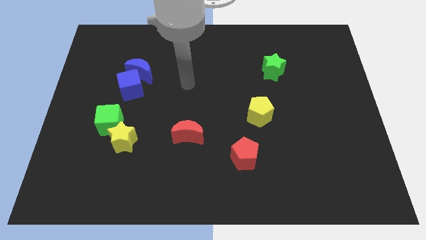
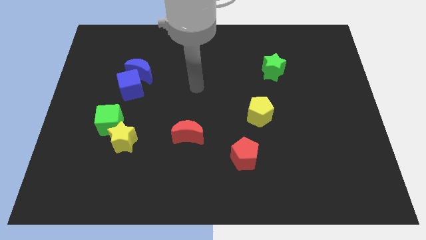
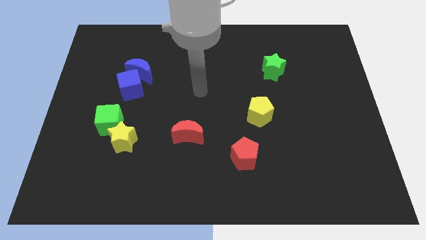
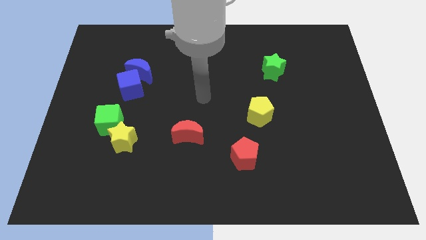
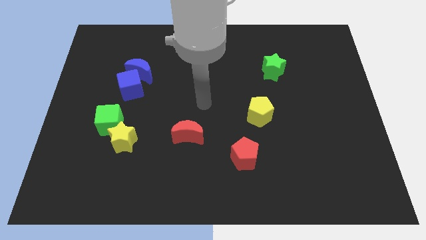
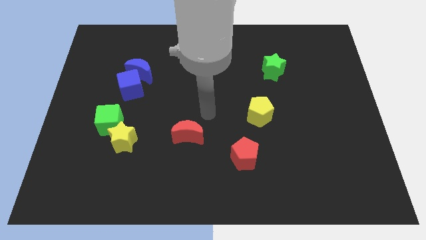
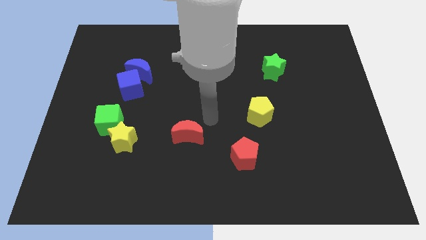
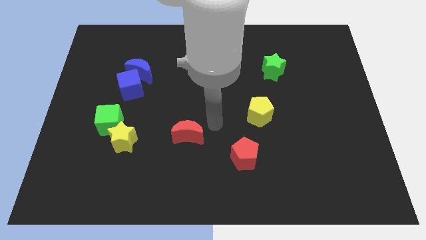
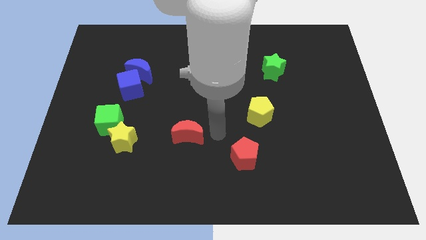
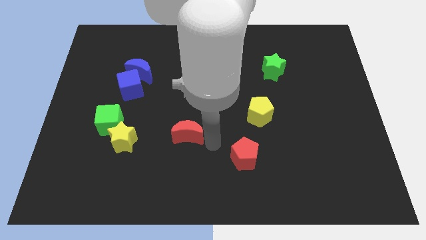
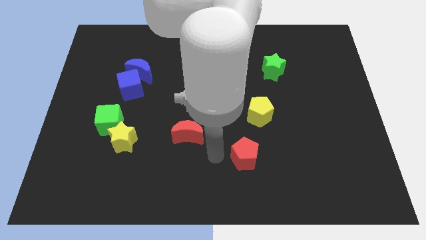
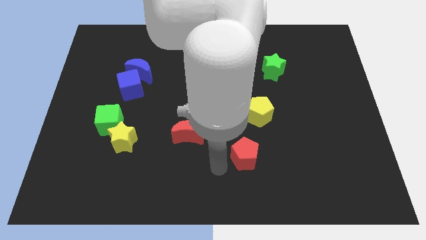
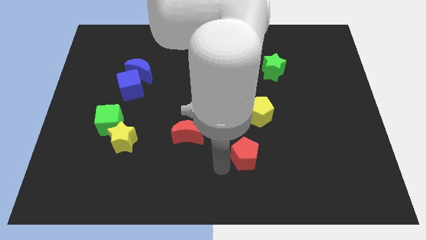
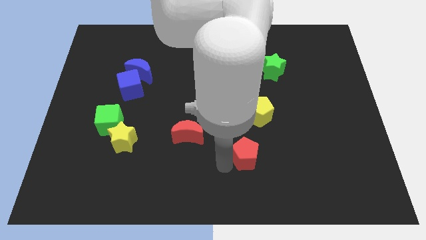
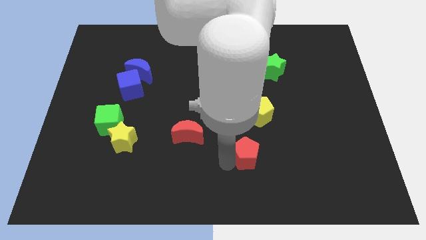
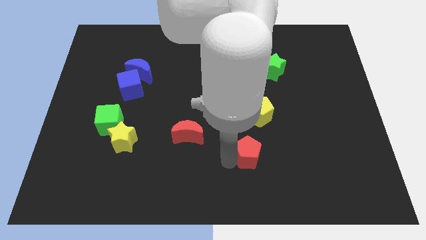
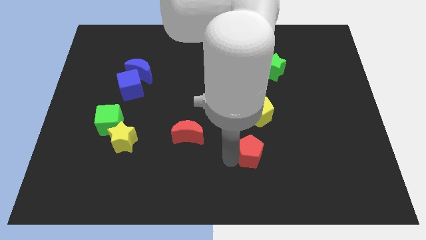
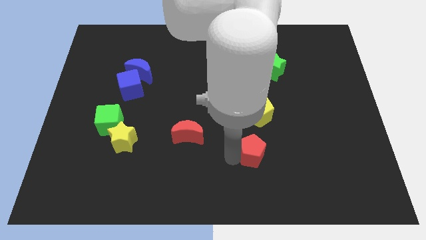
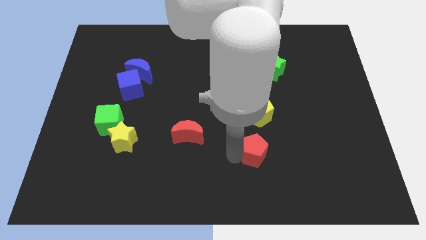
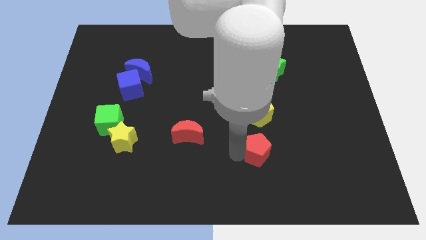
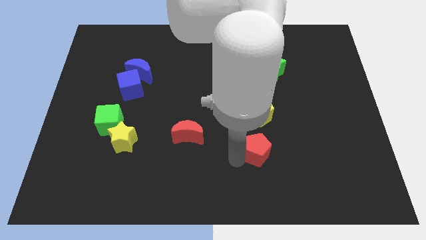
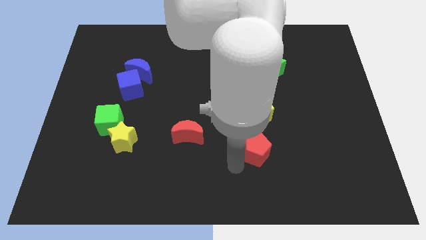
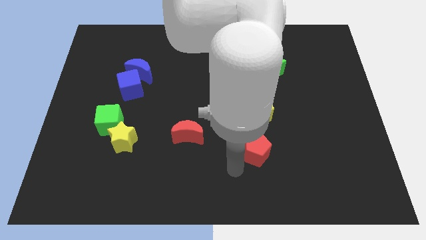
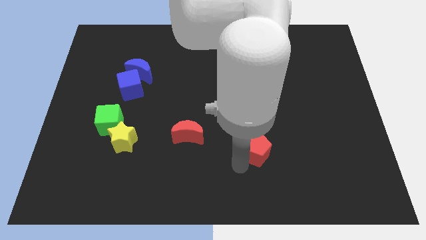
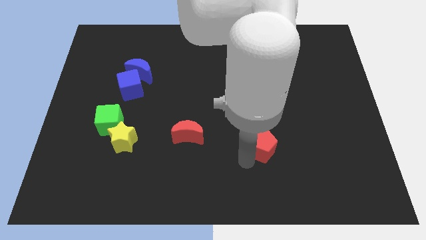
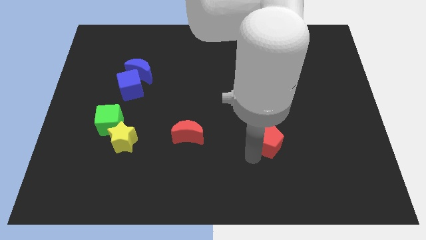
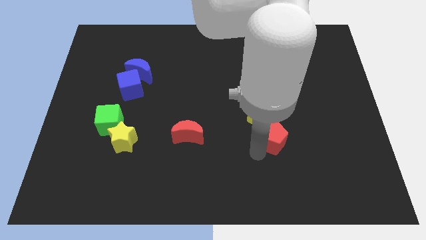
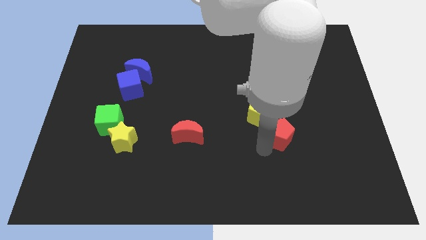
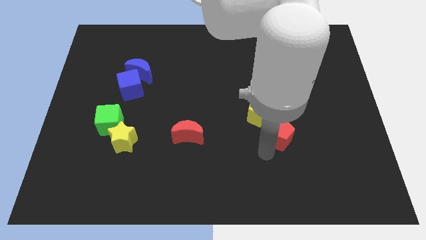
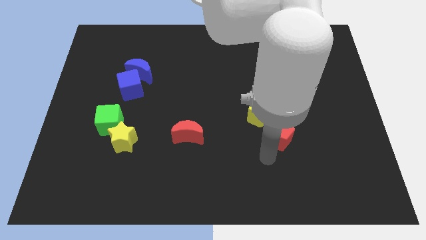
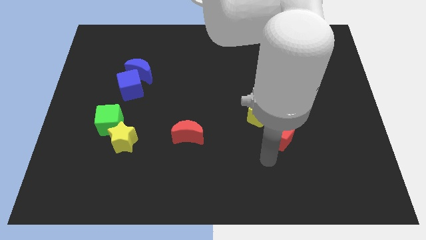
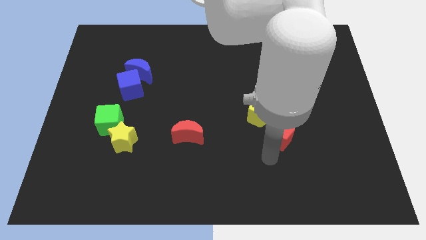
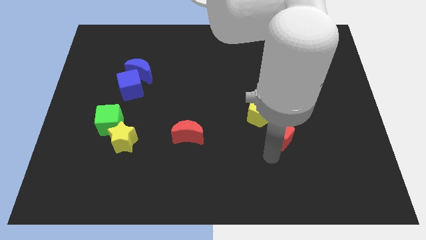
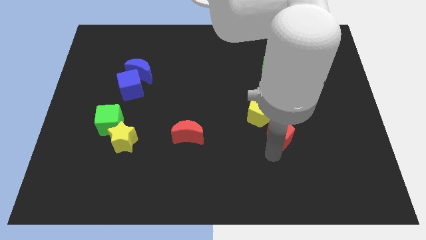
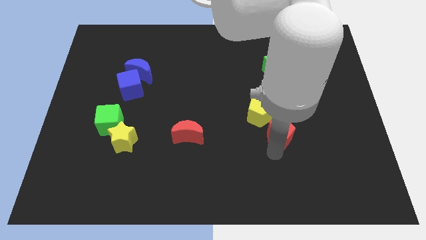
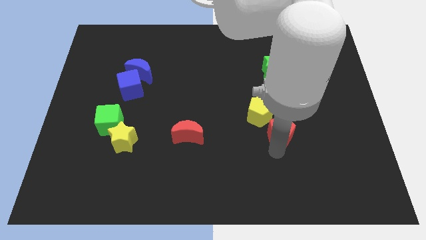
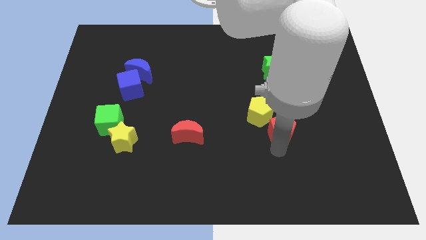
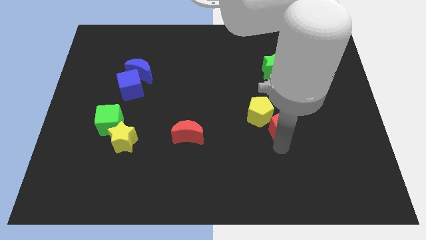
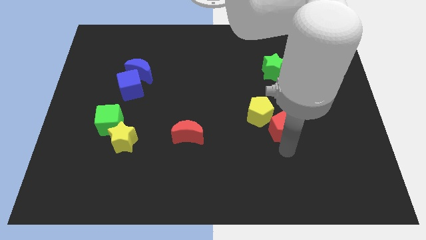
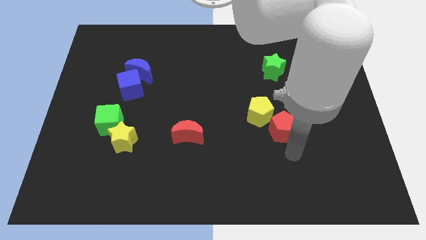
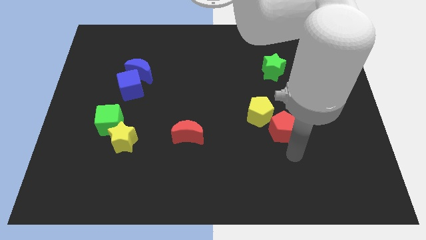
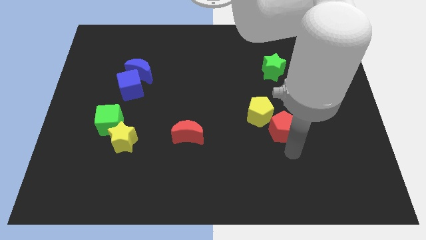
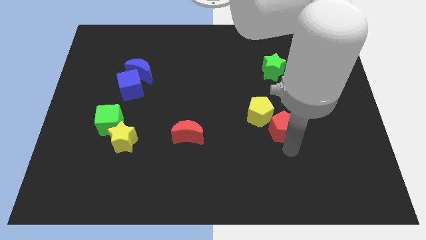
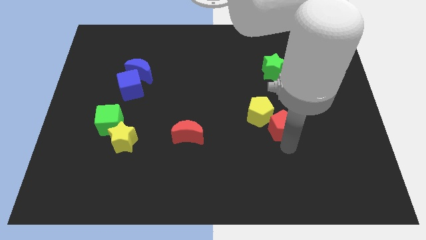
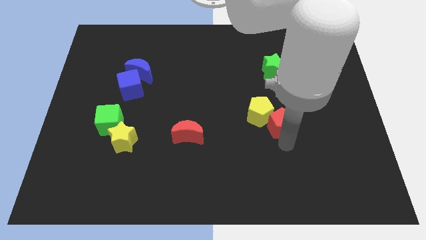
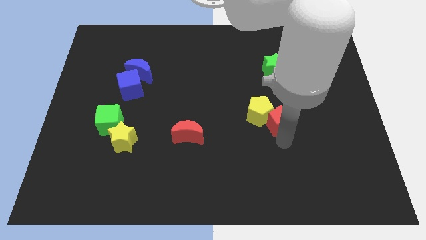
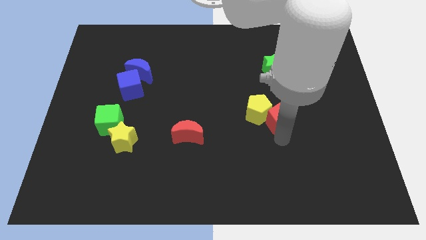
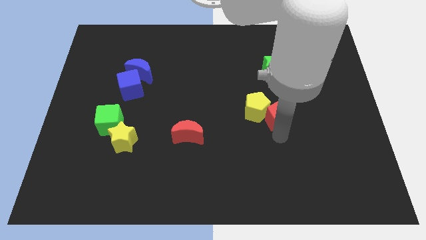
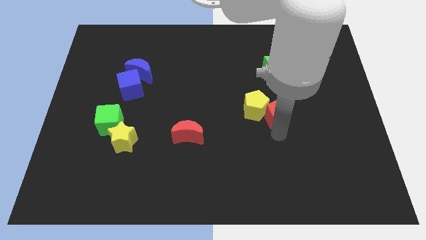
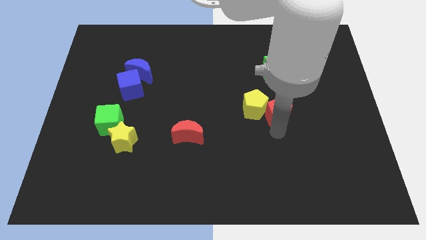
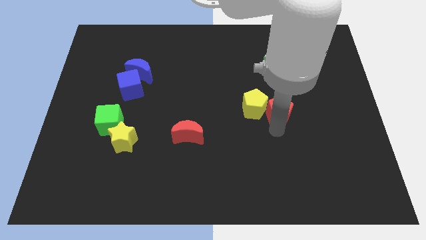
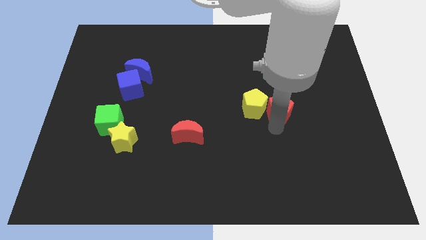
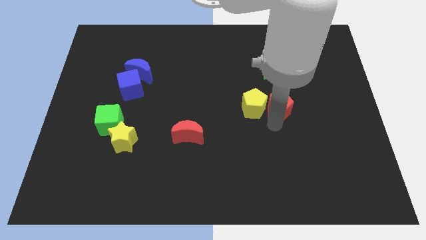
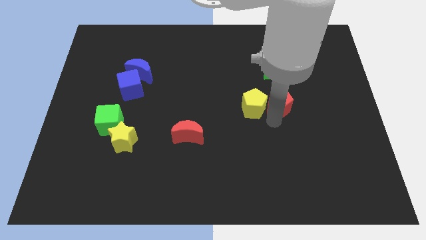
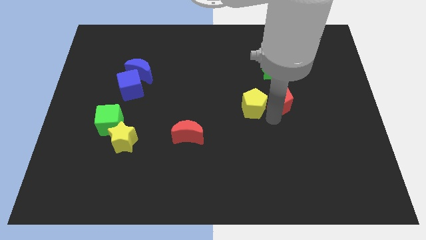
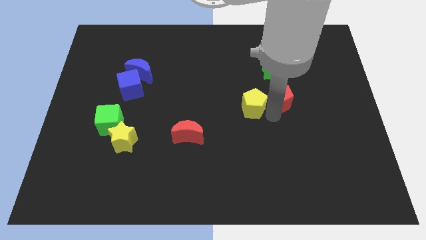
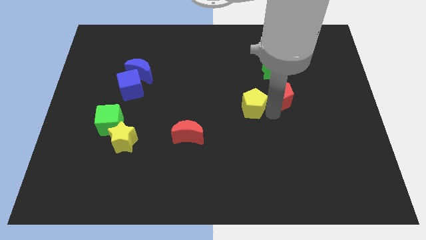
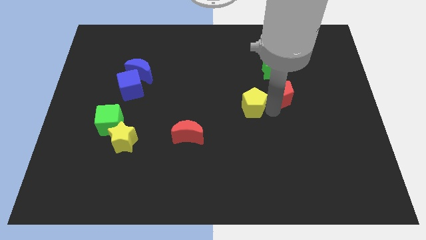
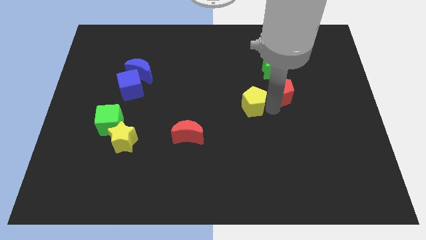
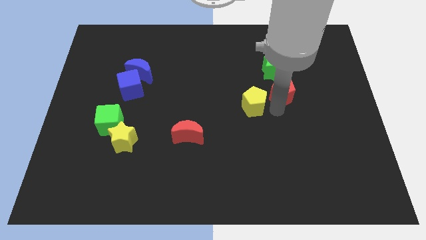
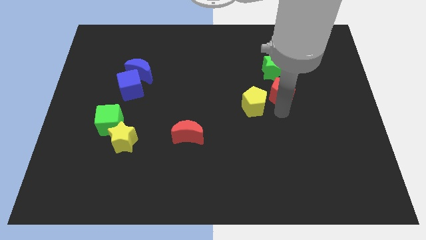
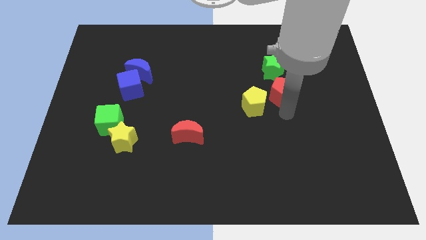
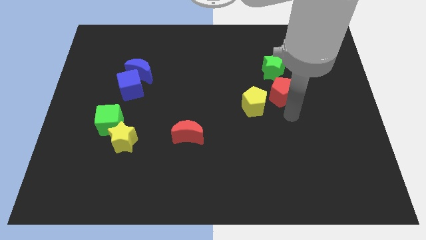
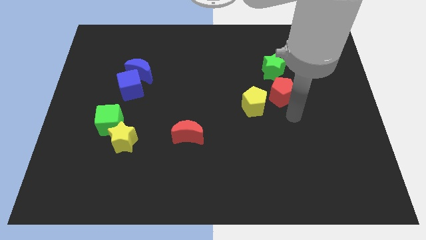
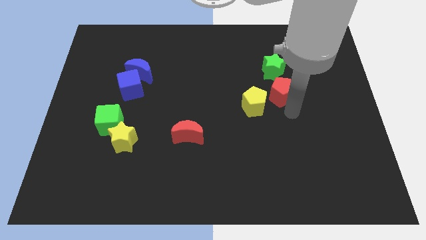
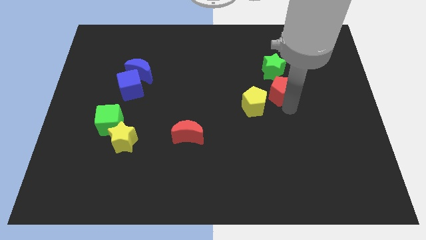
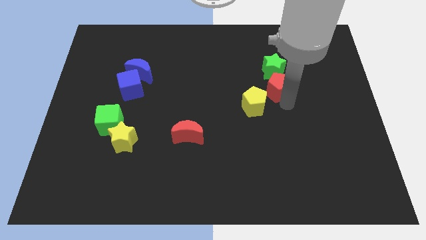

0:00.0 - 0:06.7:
move the red pentagon to the green star

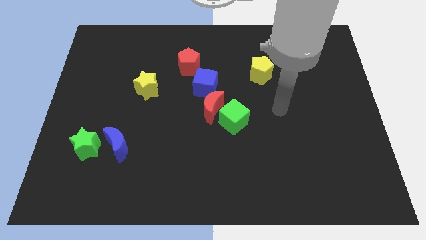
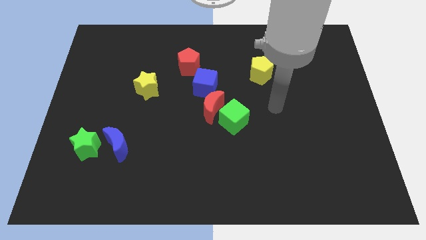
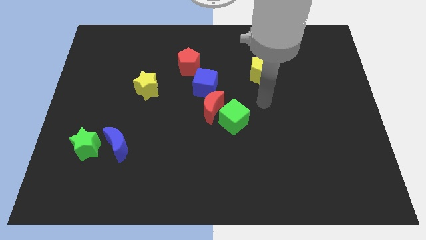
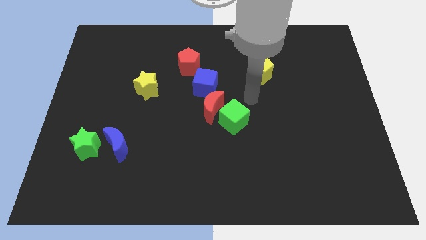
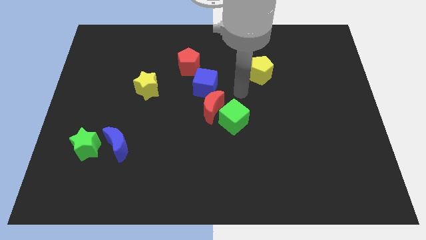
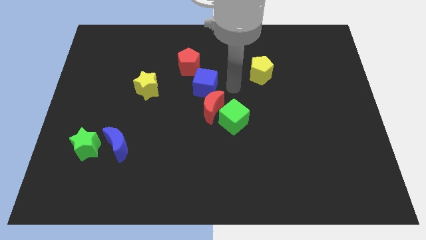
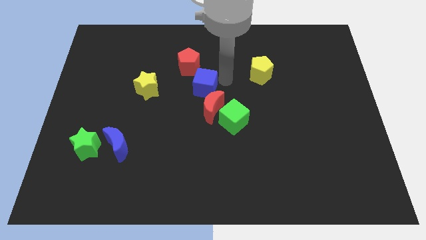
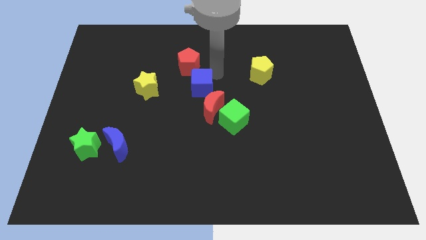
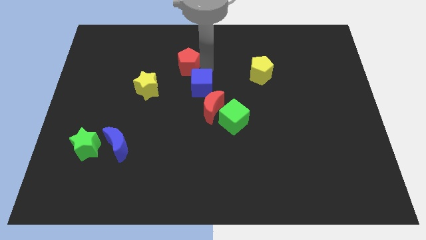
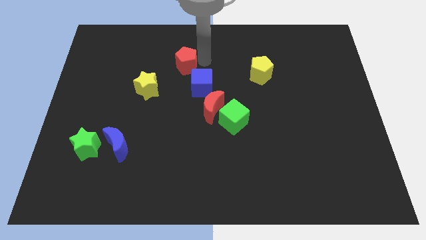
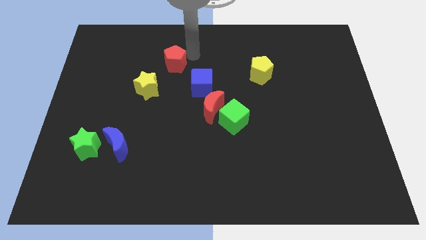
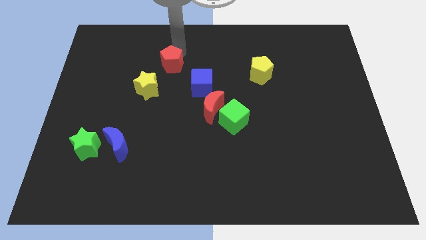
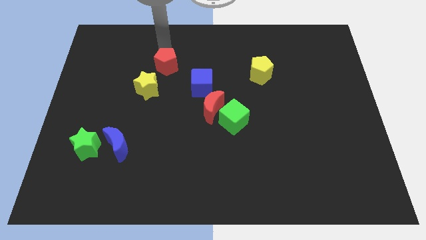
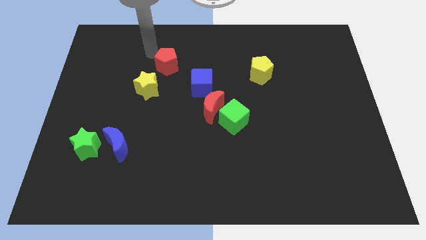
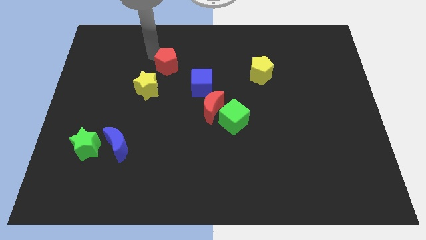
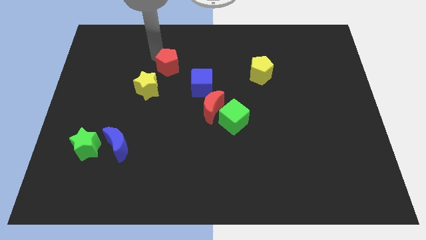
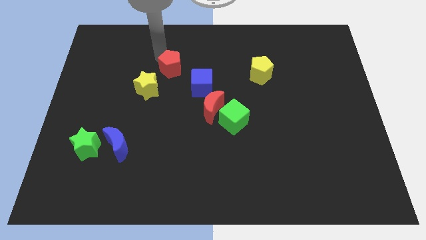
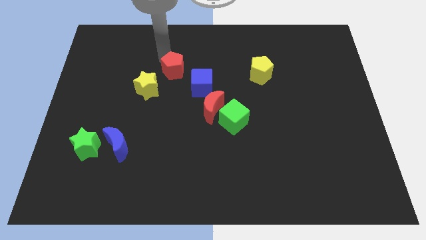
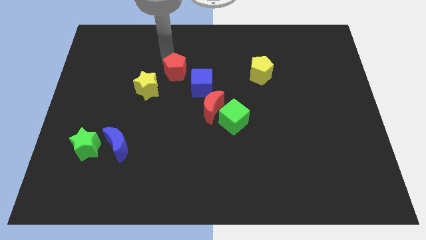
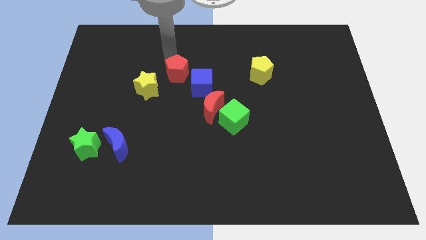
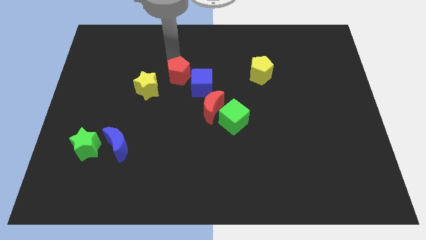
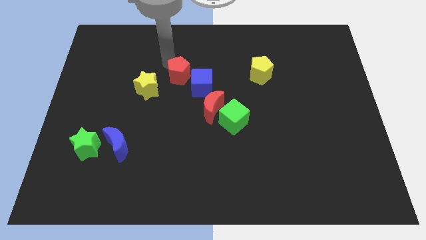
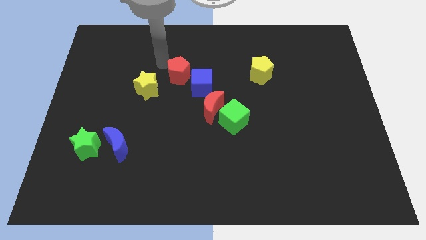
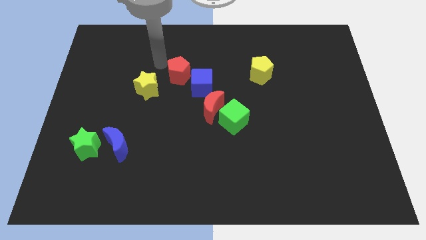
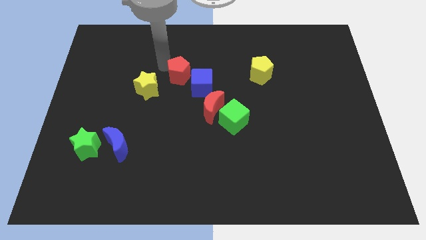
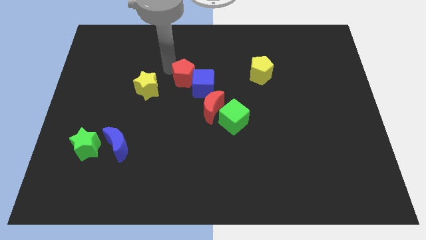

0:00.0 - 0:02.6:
push the red pentagon close to the blue cube
